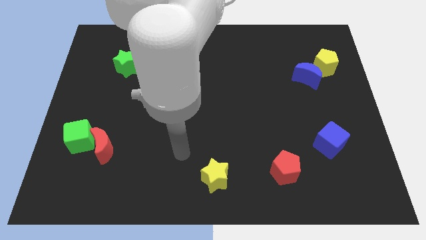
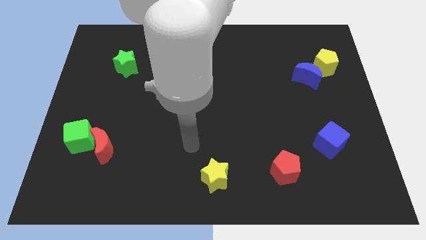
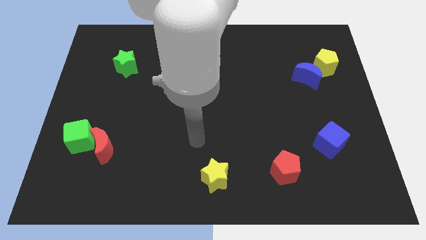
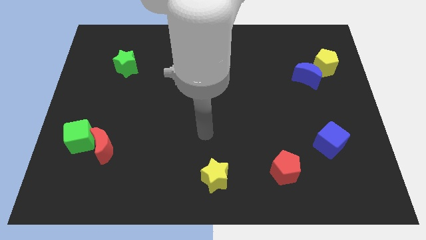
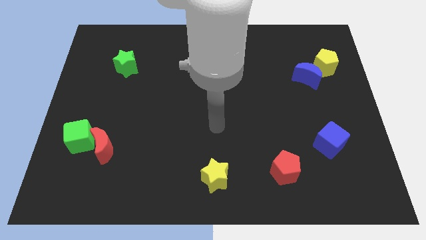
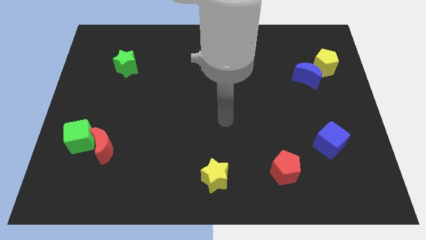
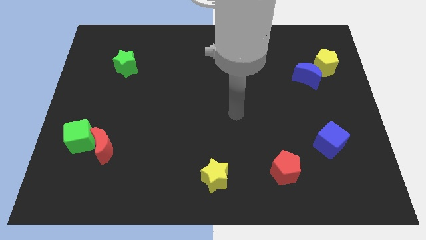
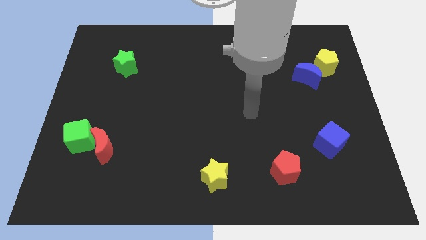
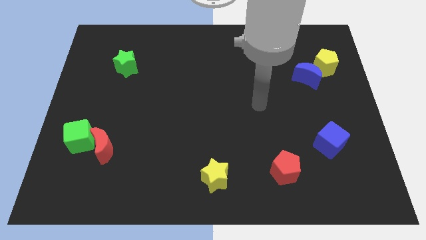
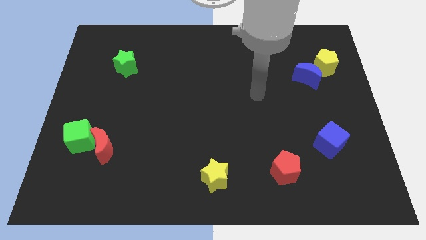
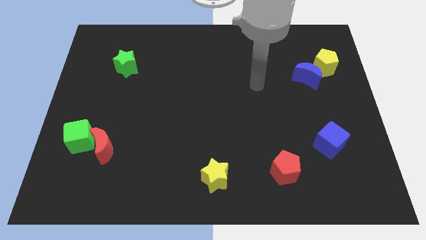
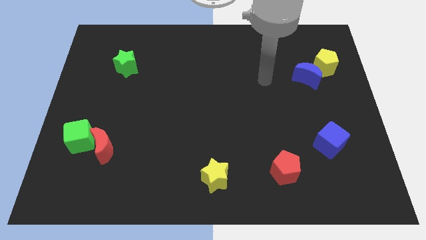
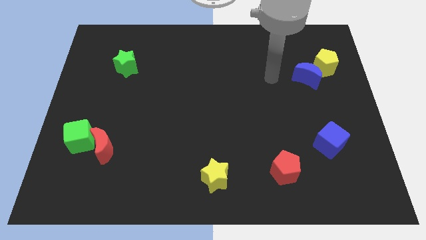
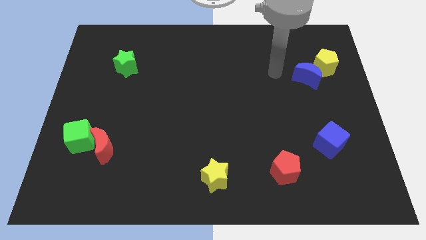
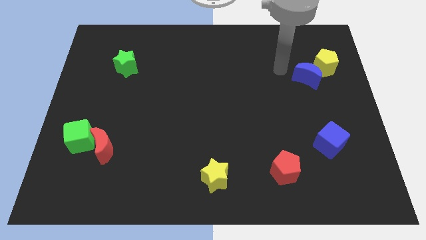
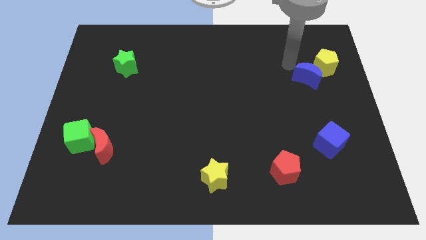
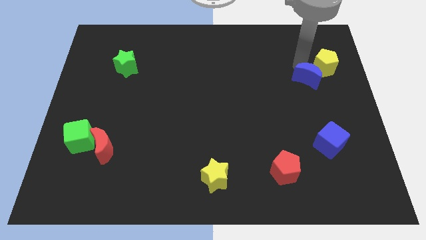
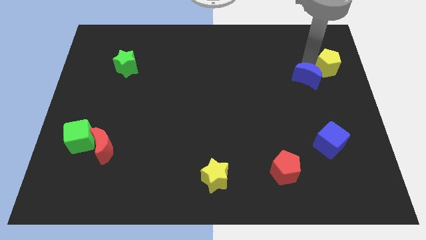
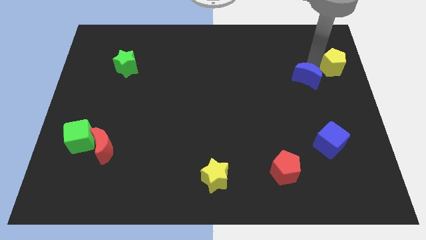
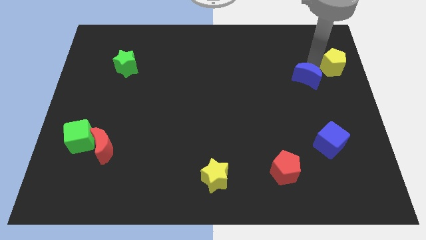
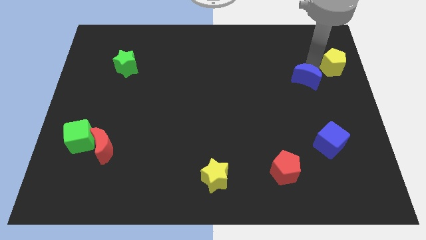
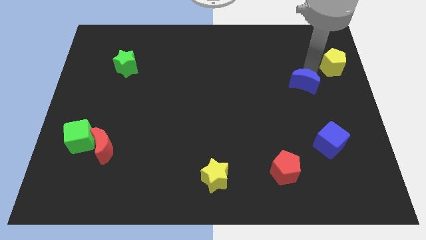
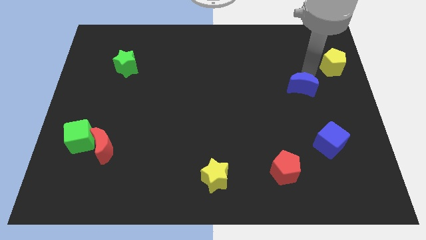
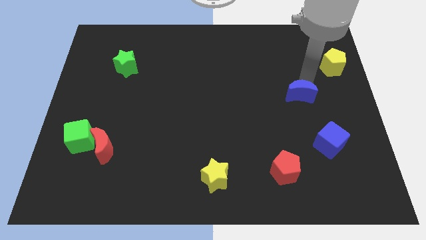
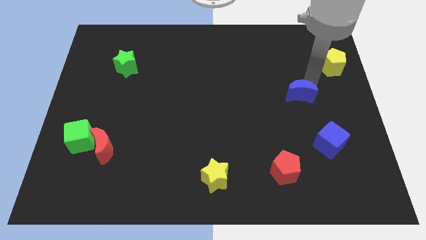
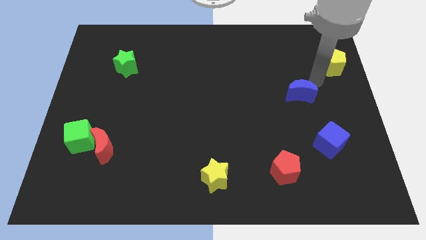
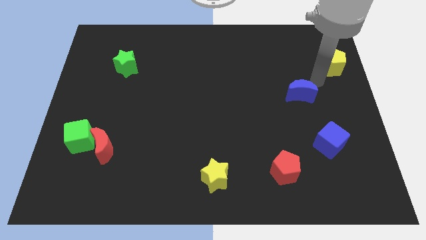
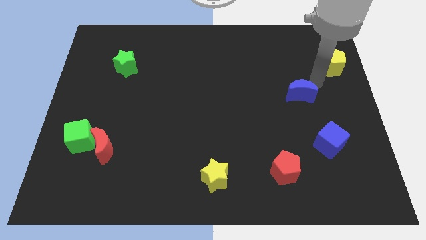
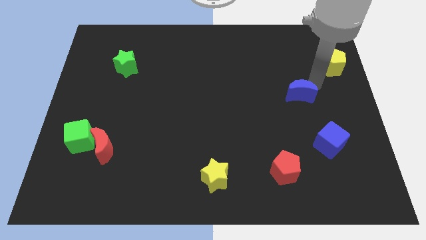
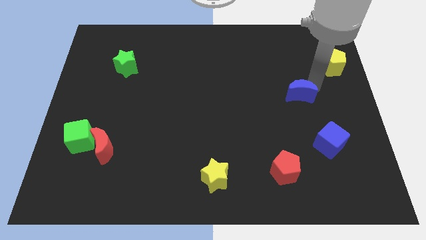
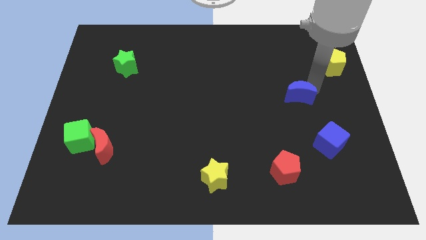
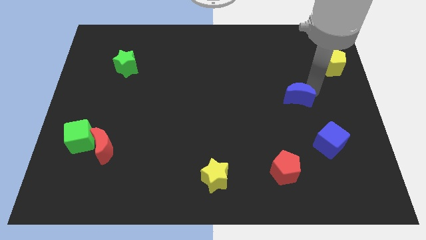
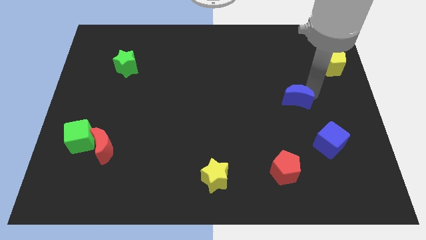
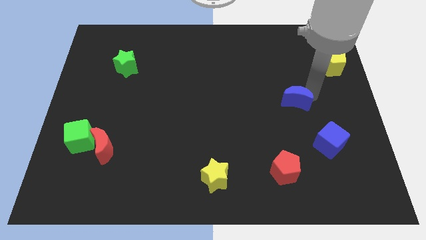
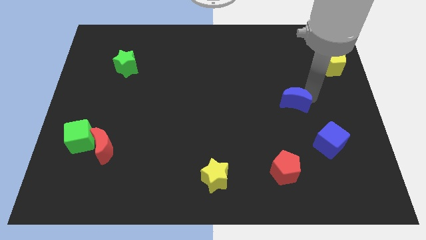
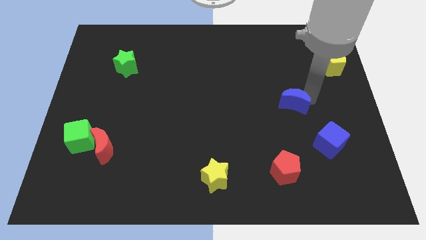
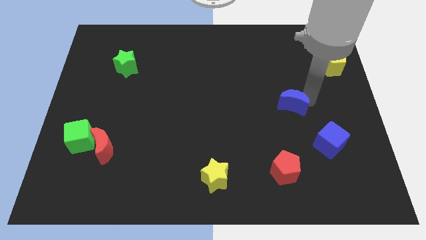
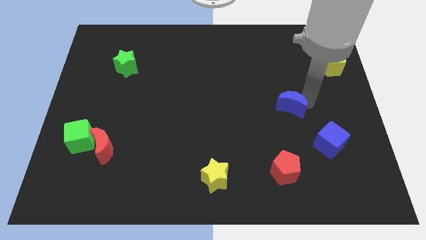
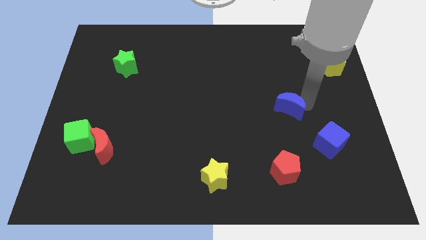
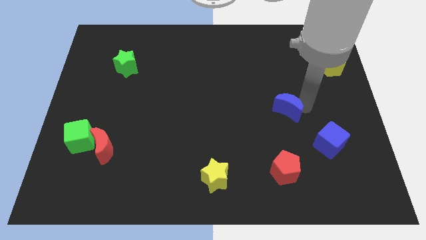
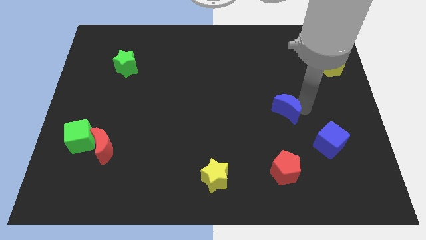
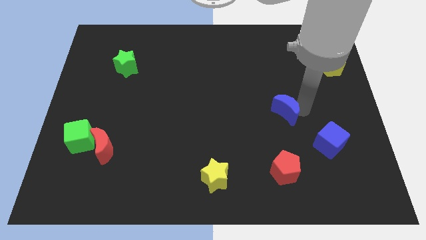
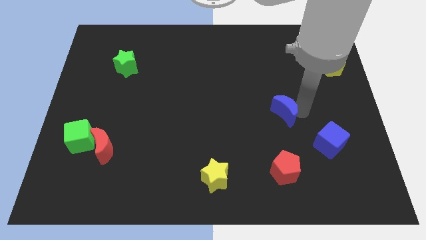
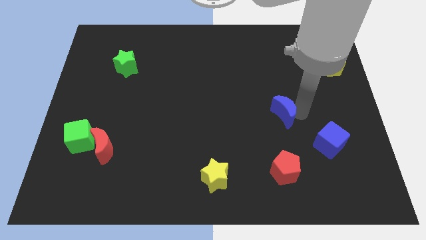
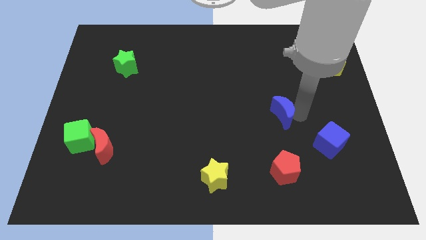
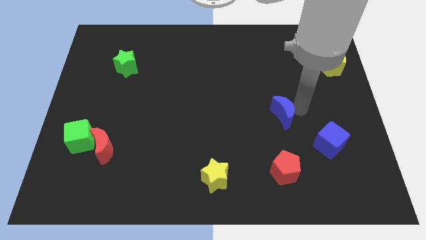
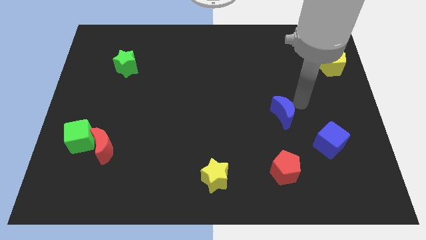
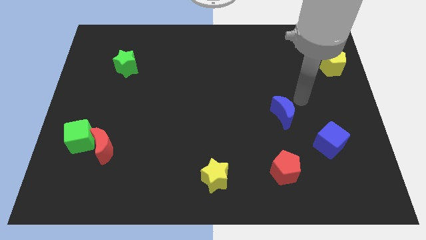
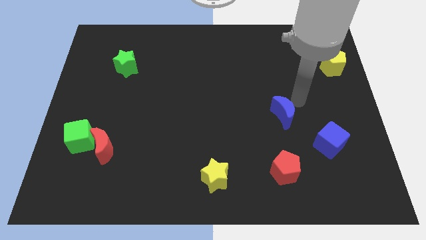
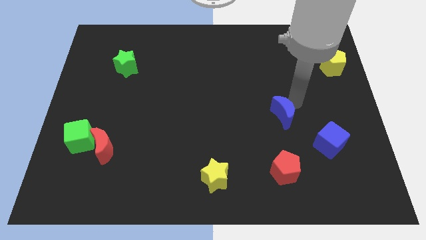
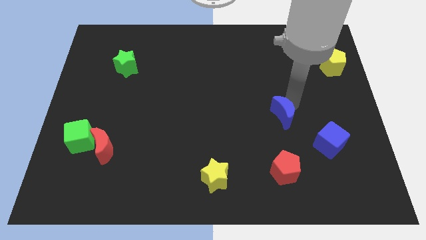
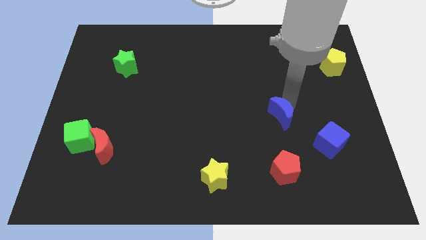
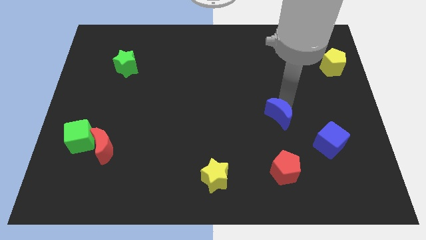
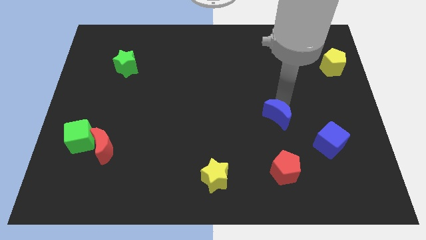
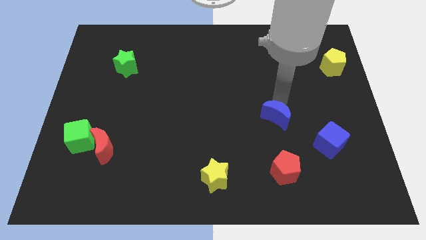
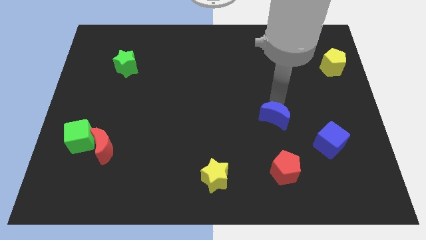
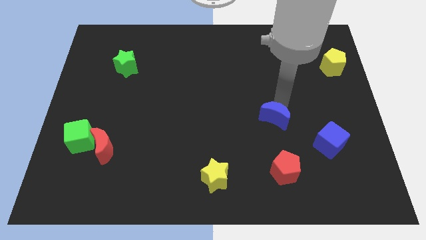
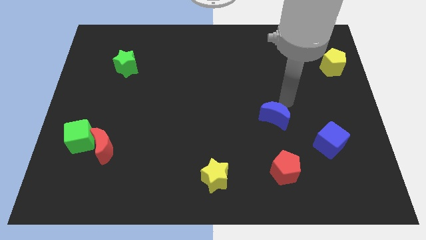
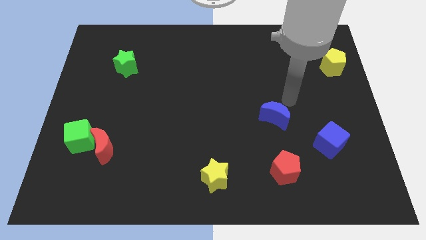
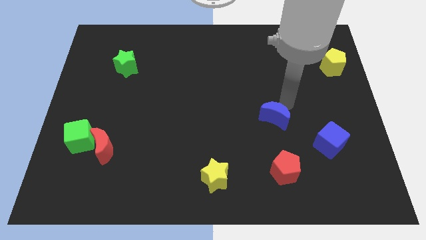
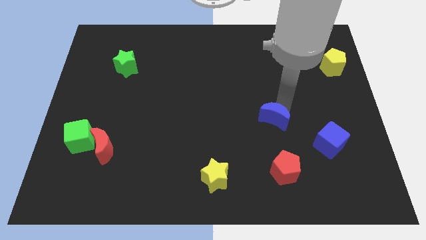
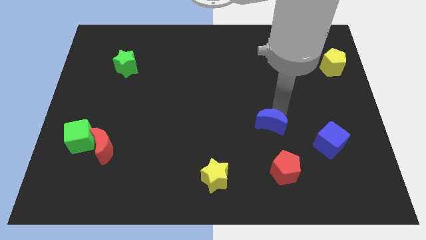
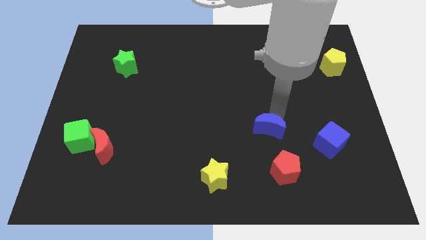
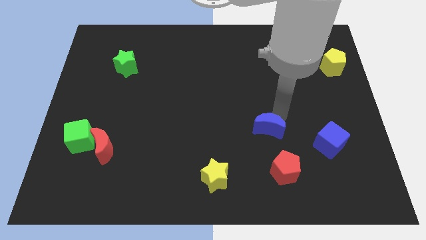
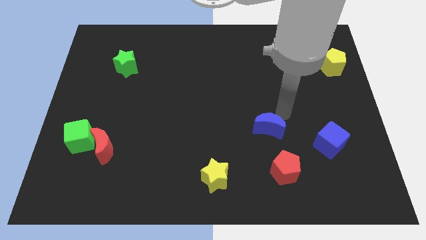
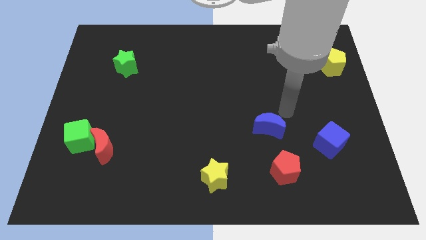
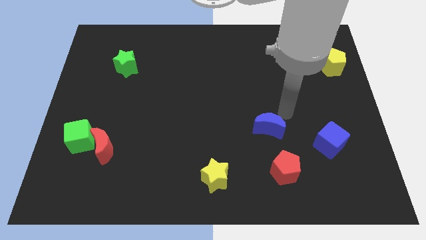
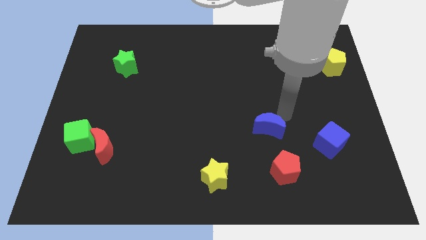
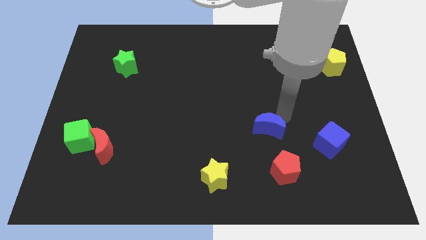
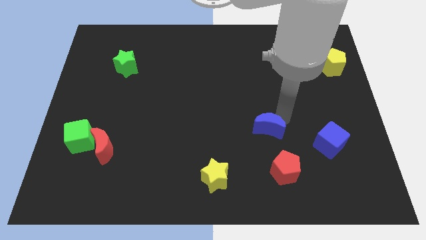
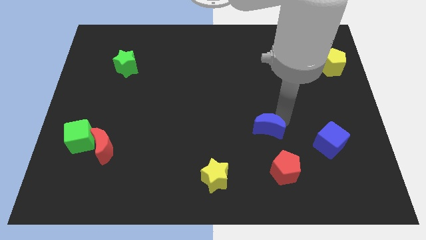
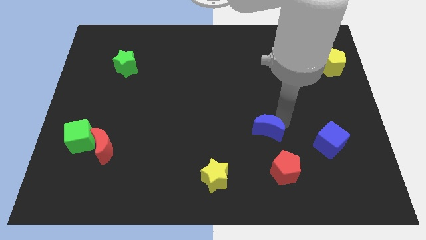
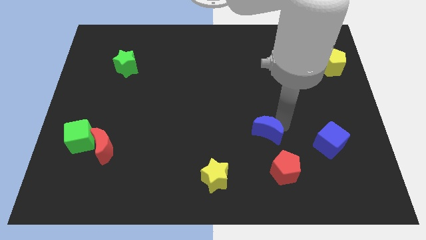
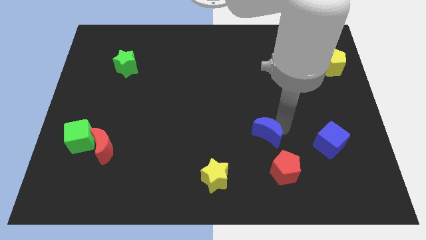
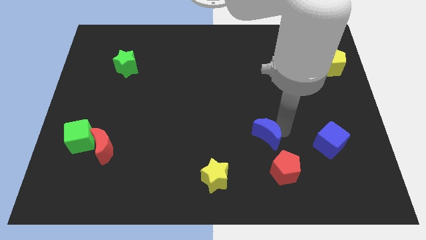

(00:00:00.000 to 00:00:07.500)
move the blue moon diagonally down and left

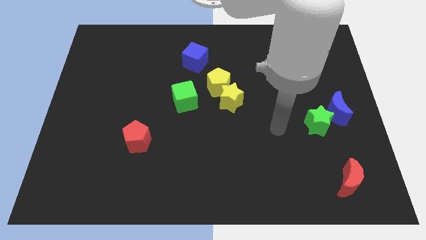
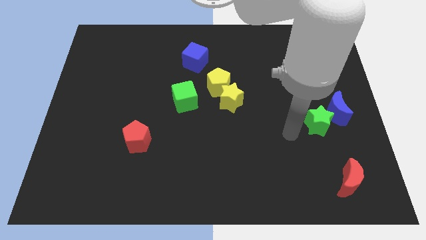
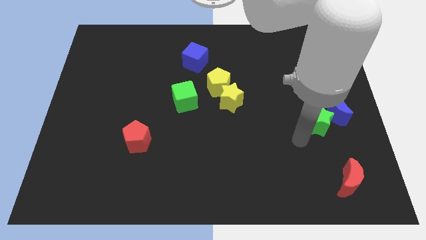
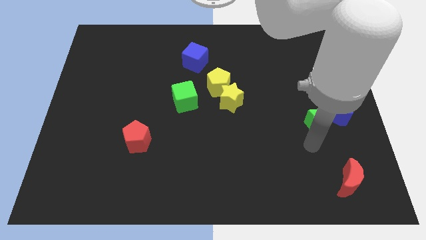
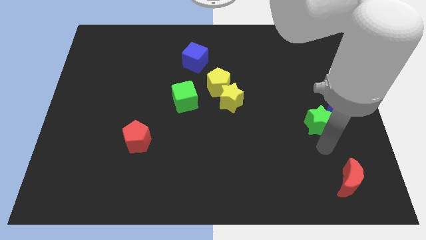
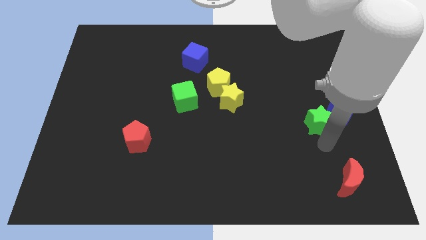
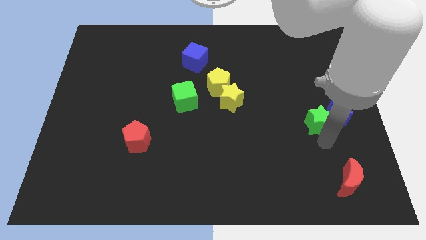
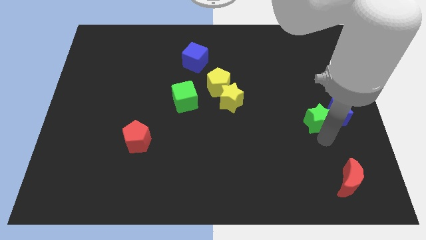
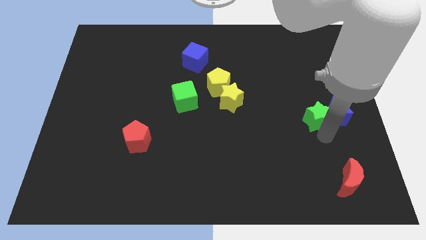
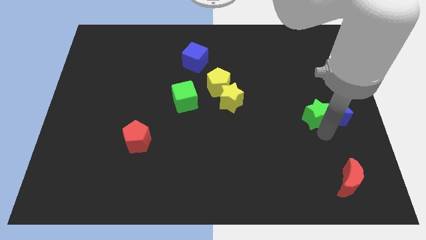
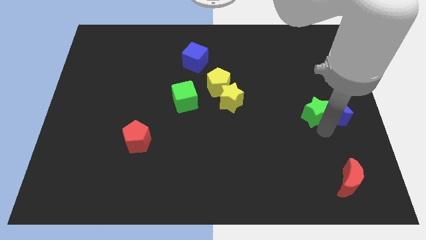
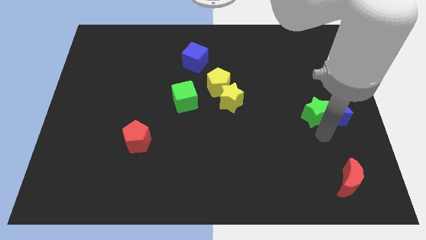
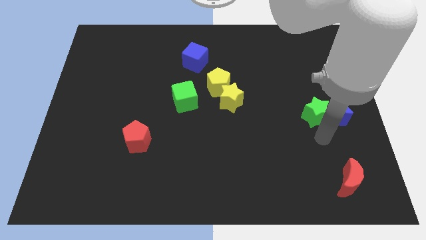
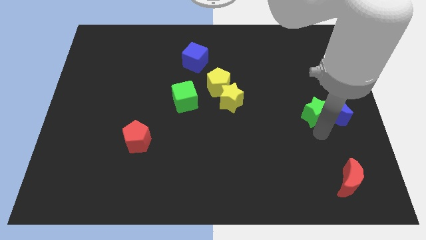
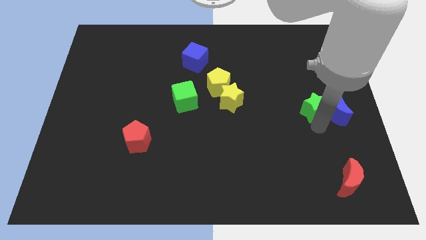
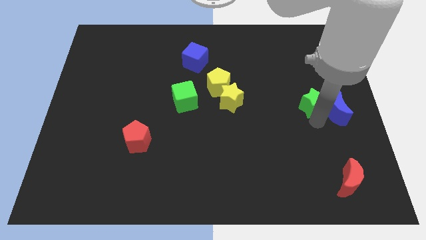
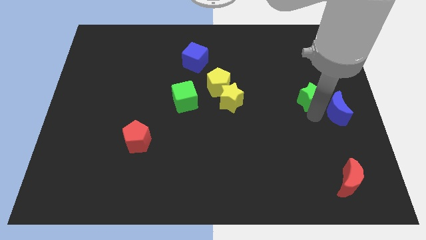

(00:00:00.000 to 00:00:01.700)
slightly push the green star upwards
